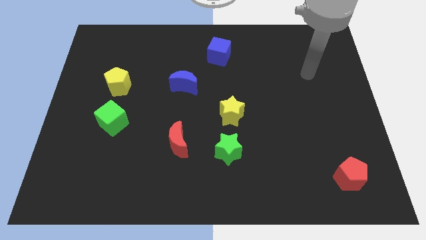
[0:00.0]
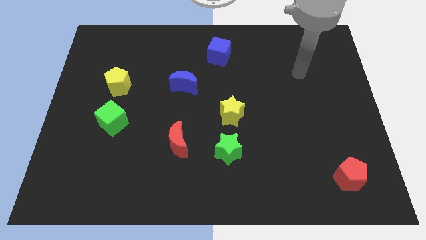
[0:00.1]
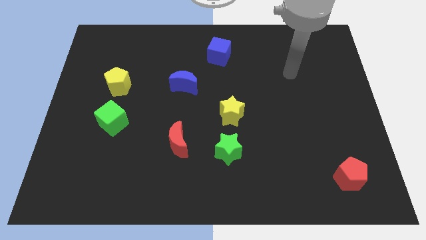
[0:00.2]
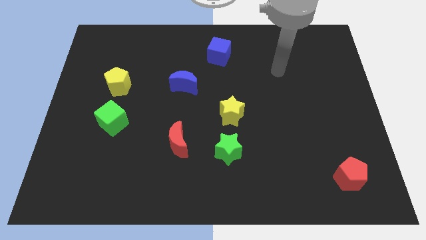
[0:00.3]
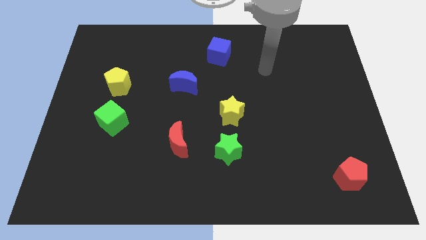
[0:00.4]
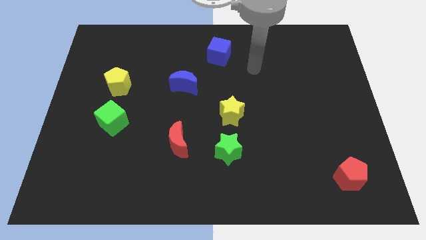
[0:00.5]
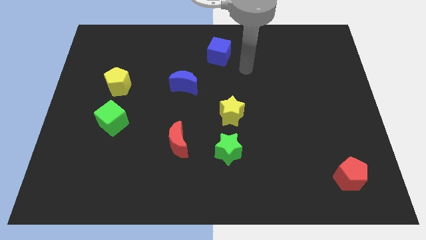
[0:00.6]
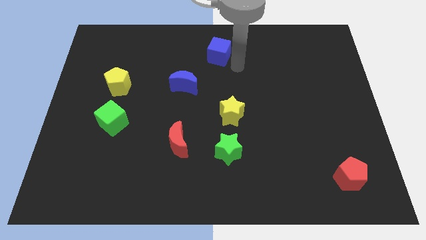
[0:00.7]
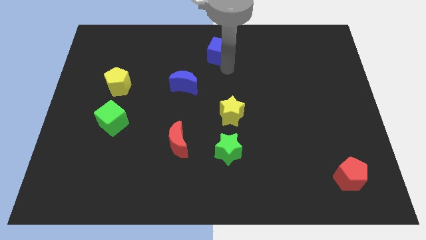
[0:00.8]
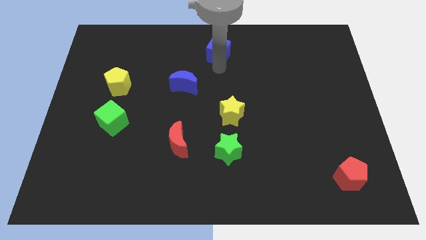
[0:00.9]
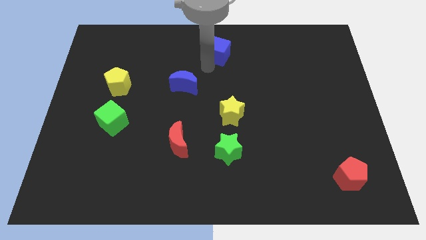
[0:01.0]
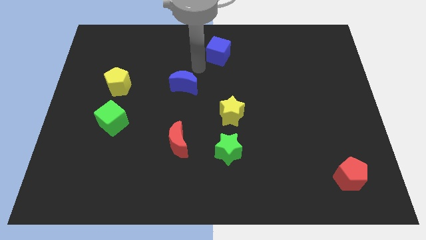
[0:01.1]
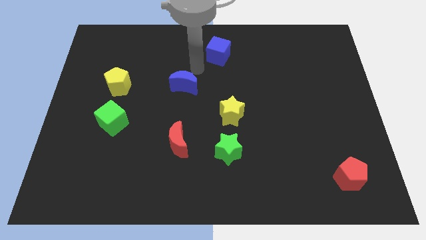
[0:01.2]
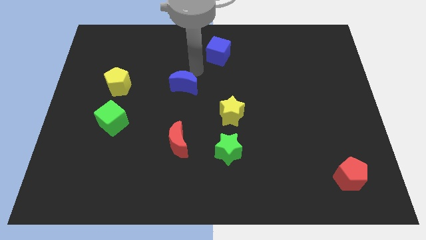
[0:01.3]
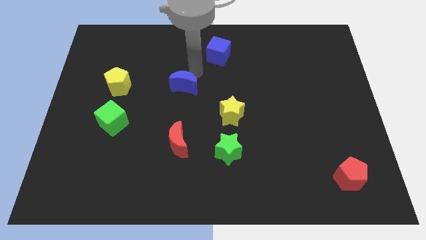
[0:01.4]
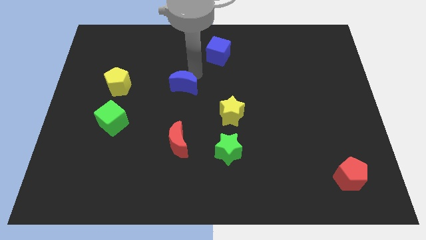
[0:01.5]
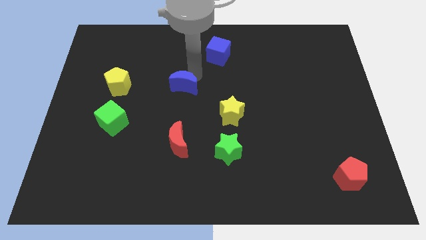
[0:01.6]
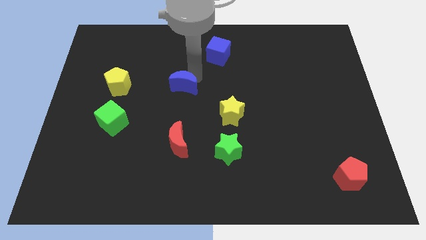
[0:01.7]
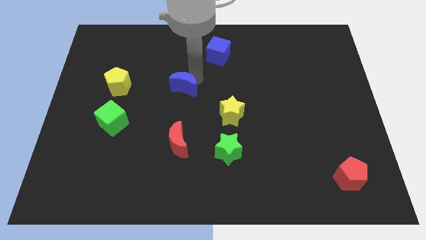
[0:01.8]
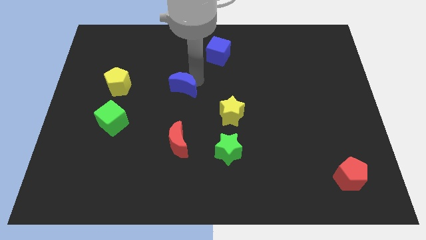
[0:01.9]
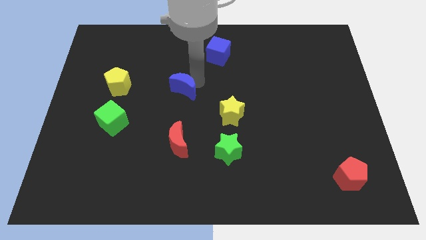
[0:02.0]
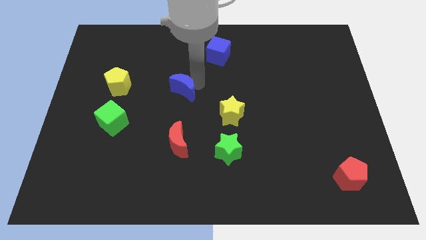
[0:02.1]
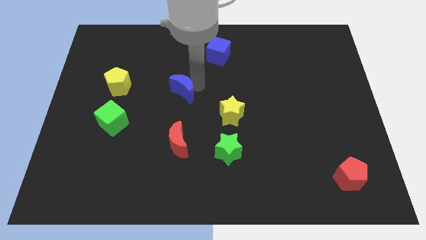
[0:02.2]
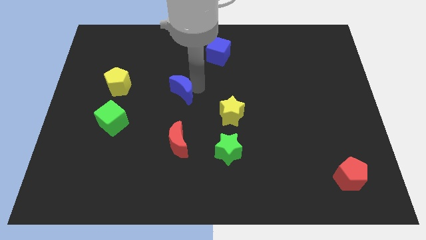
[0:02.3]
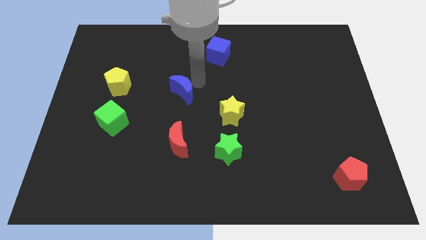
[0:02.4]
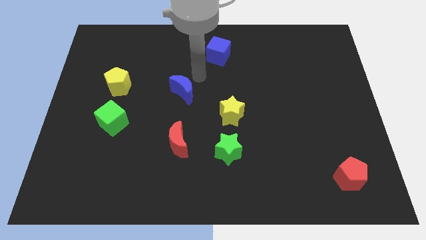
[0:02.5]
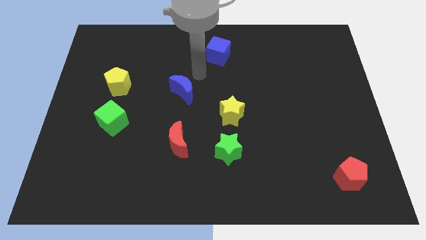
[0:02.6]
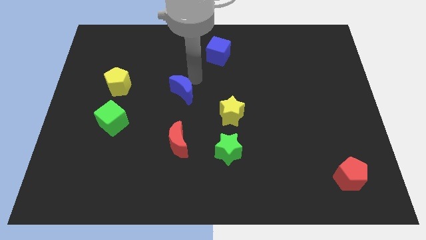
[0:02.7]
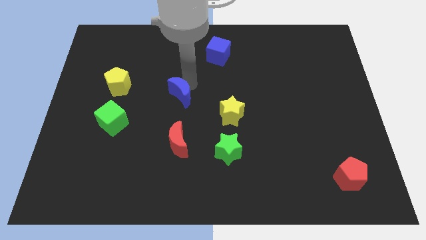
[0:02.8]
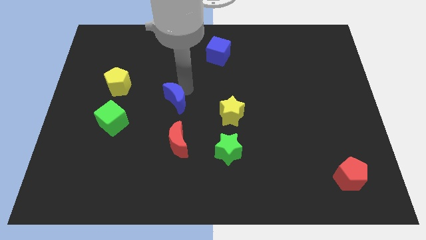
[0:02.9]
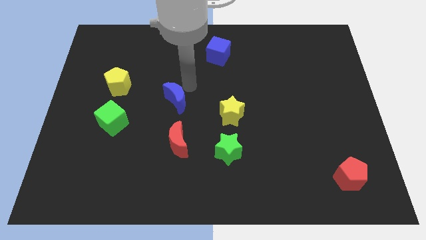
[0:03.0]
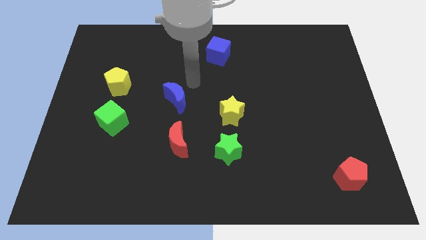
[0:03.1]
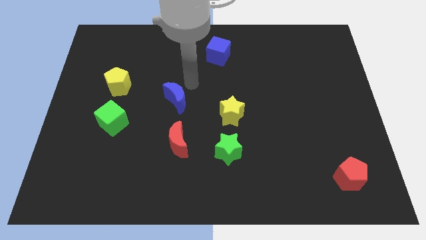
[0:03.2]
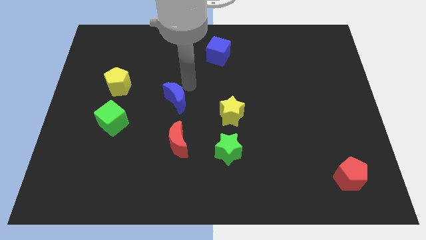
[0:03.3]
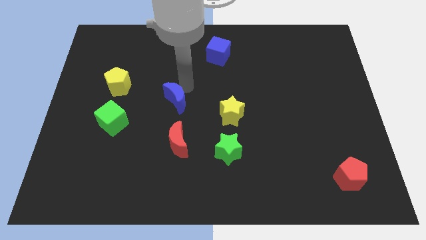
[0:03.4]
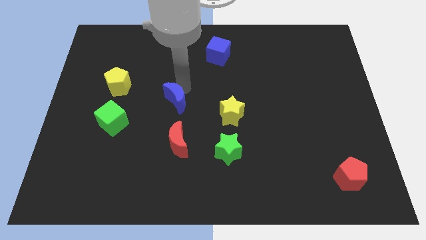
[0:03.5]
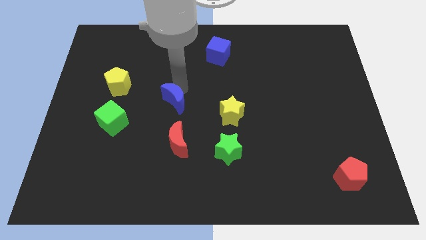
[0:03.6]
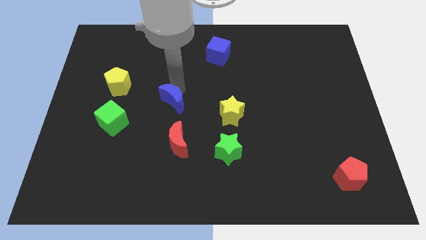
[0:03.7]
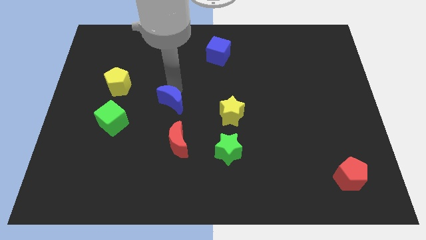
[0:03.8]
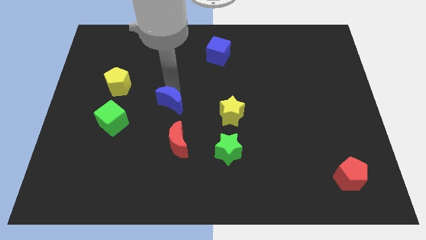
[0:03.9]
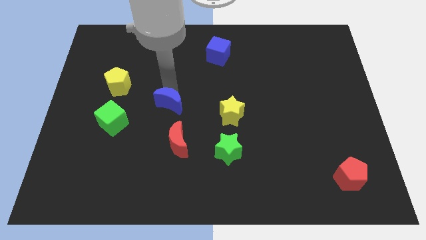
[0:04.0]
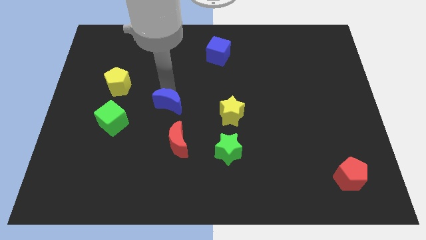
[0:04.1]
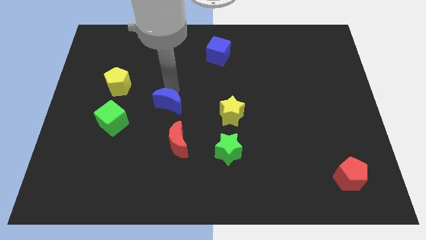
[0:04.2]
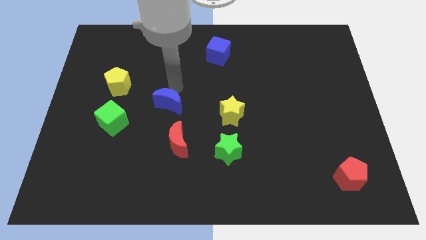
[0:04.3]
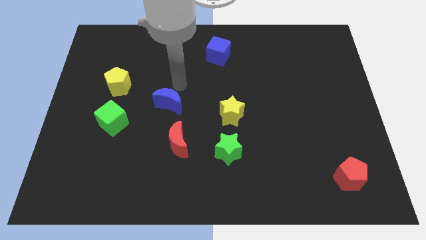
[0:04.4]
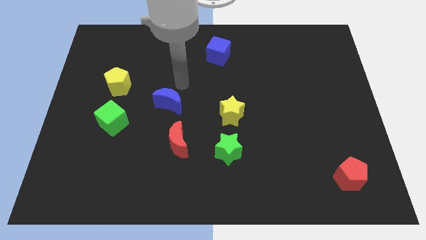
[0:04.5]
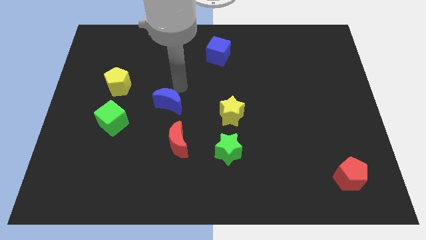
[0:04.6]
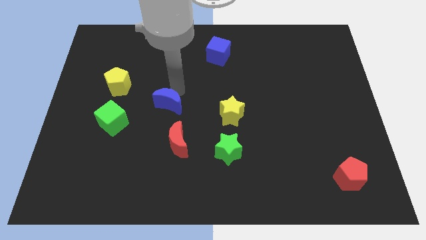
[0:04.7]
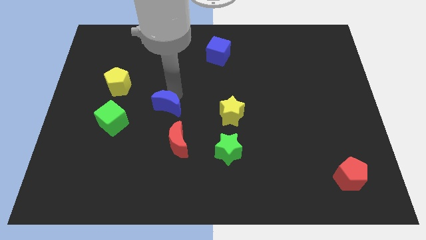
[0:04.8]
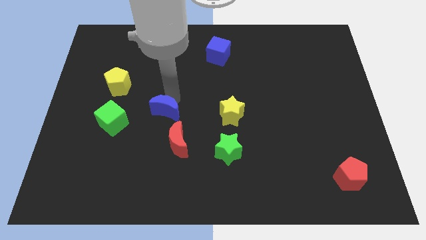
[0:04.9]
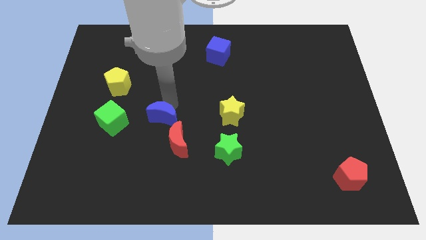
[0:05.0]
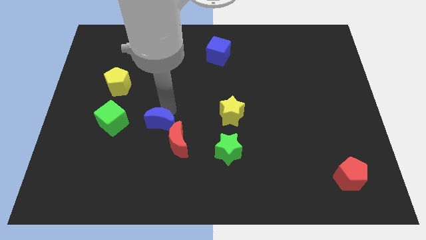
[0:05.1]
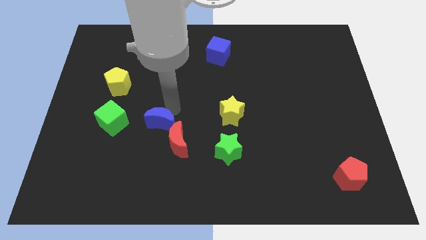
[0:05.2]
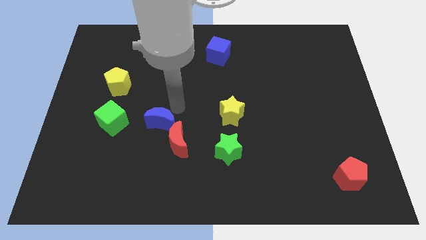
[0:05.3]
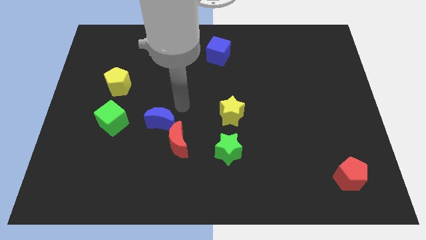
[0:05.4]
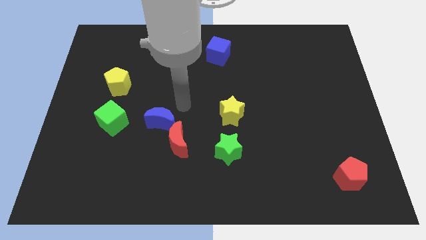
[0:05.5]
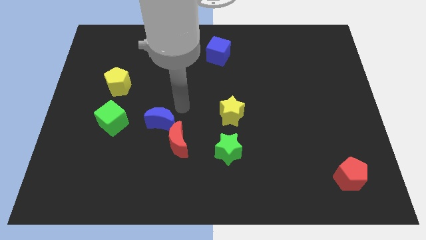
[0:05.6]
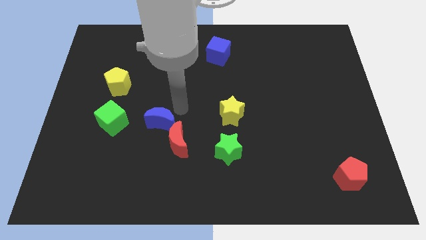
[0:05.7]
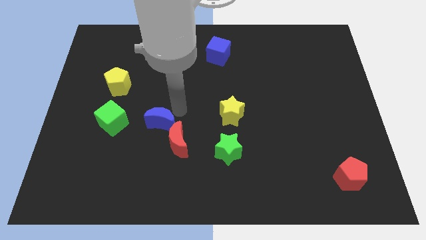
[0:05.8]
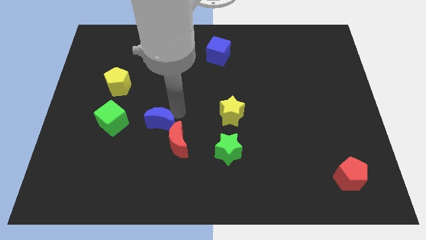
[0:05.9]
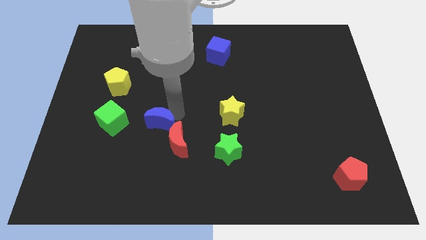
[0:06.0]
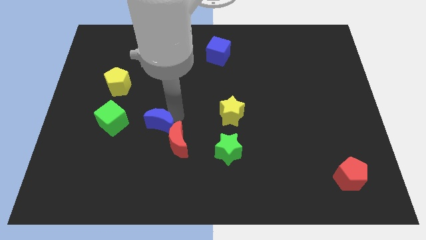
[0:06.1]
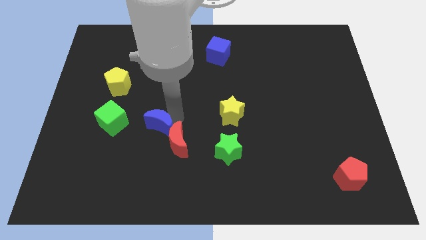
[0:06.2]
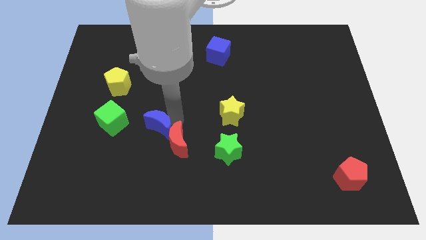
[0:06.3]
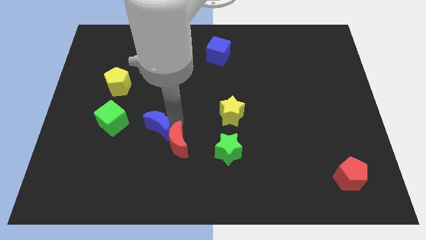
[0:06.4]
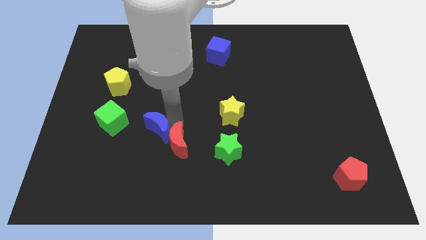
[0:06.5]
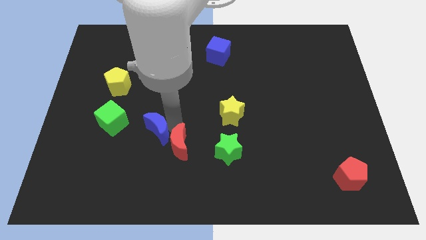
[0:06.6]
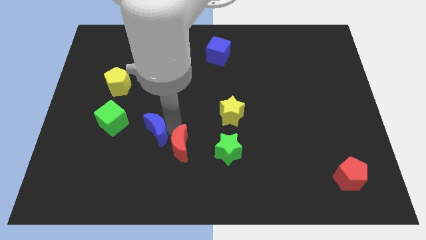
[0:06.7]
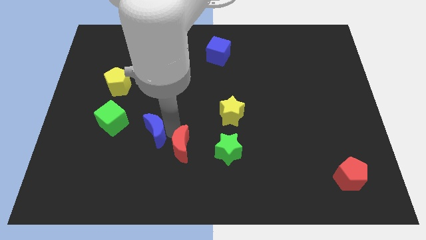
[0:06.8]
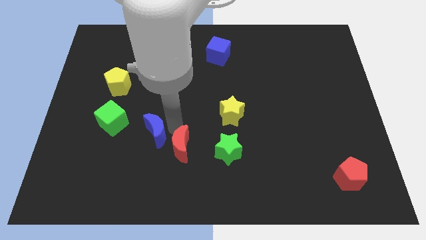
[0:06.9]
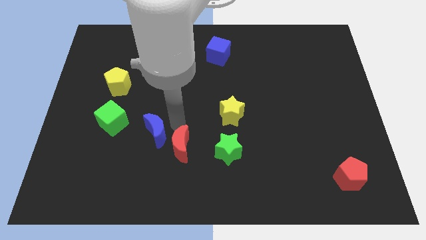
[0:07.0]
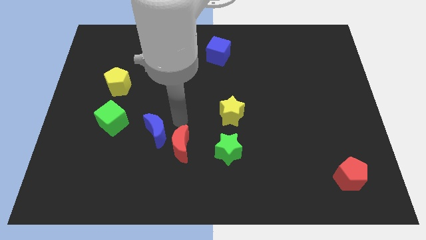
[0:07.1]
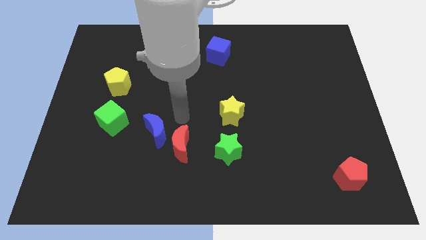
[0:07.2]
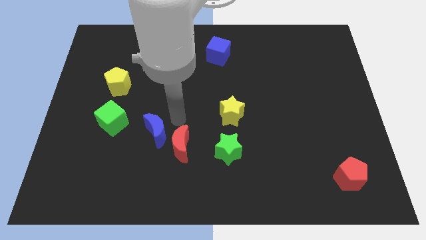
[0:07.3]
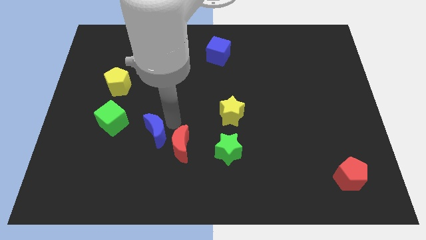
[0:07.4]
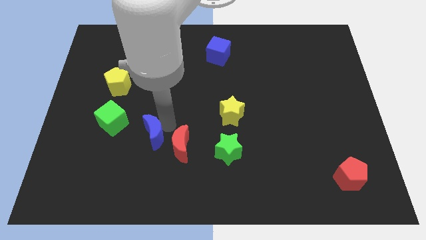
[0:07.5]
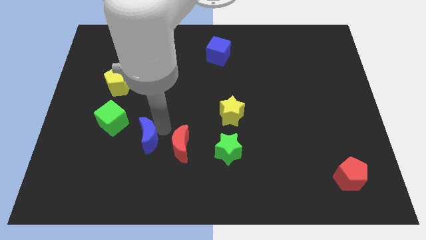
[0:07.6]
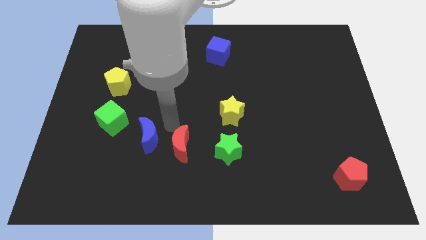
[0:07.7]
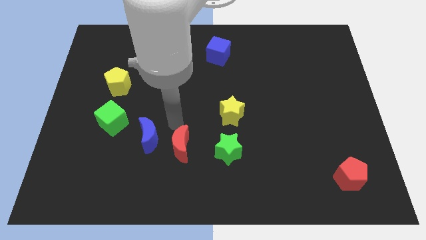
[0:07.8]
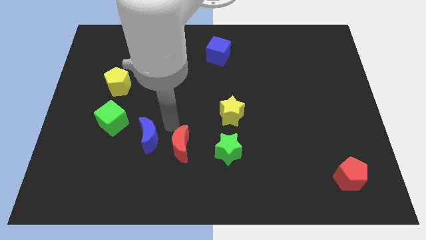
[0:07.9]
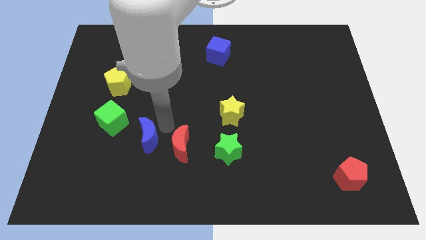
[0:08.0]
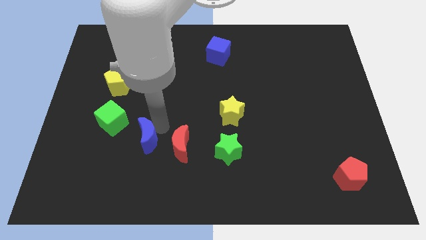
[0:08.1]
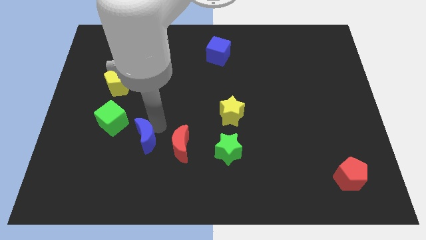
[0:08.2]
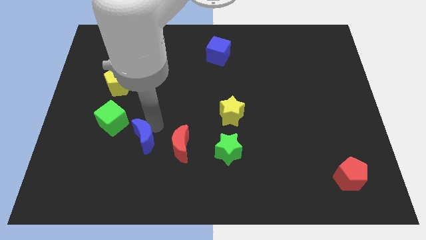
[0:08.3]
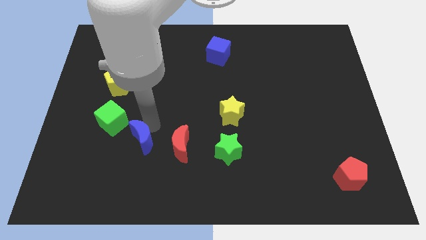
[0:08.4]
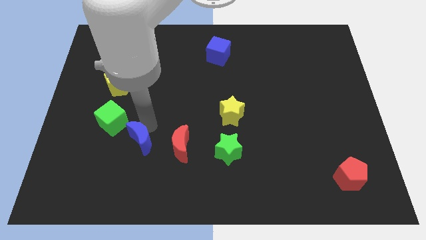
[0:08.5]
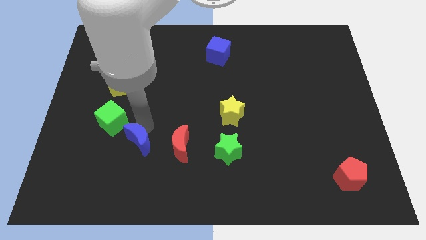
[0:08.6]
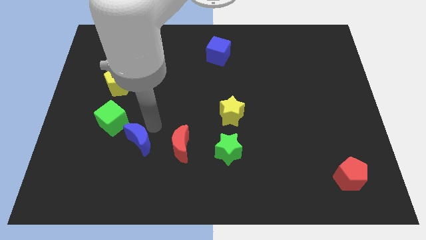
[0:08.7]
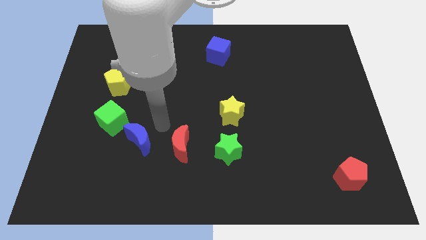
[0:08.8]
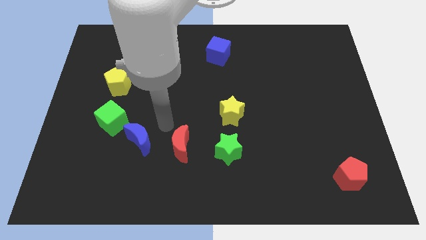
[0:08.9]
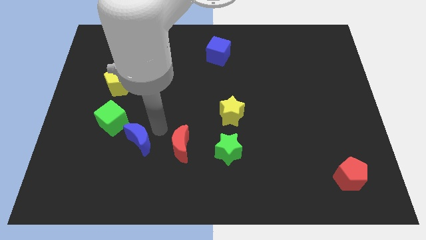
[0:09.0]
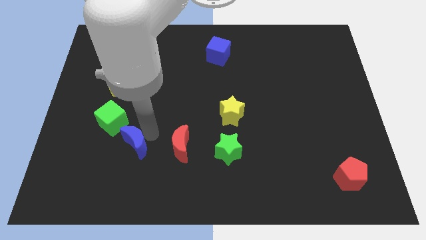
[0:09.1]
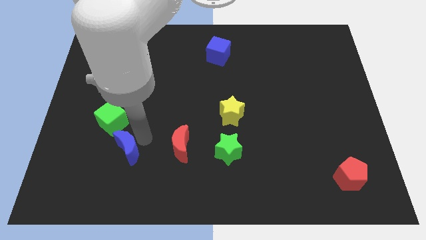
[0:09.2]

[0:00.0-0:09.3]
slide the blue moon to the bottom side of the green cube
